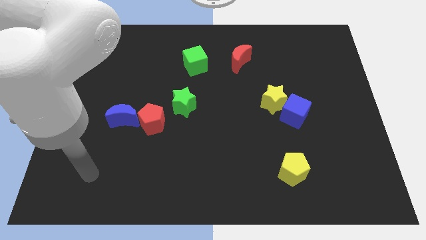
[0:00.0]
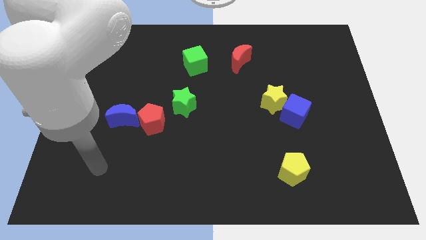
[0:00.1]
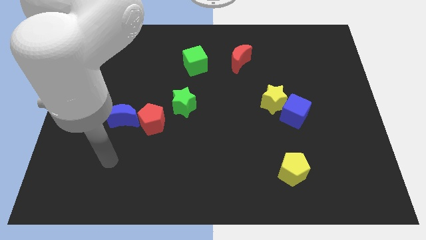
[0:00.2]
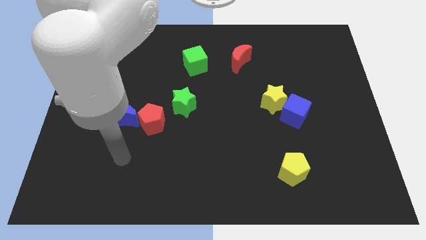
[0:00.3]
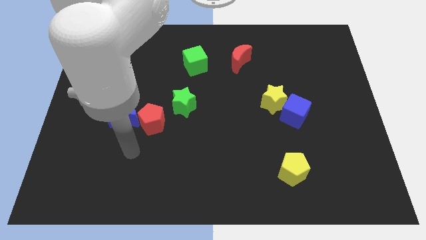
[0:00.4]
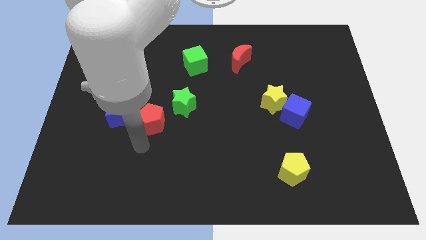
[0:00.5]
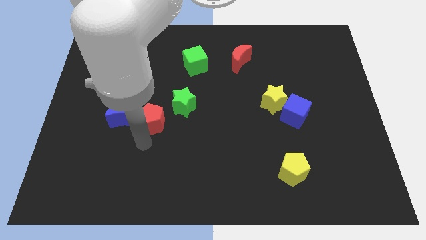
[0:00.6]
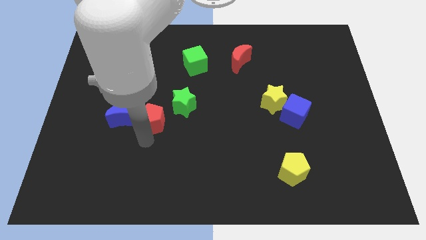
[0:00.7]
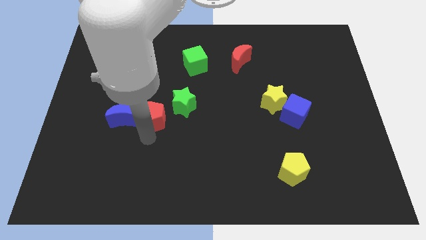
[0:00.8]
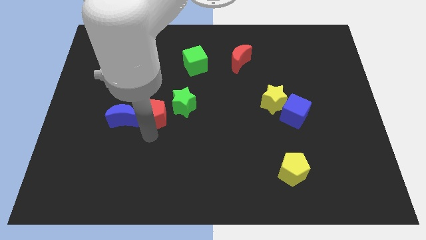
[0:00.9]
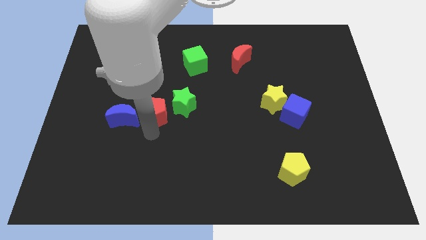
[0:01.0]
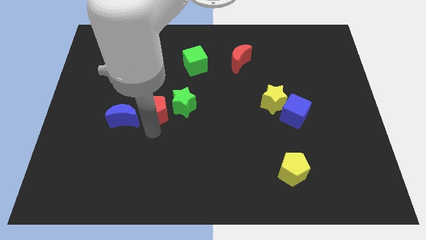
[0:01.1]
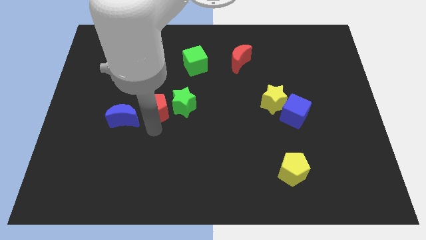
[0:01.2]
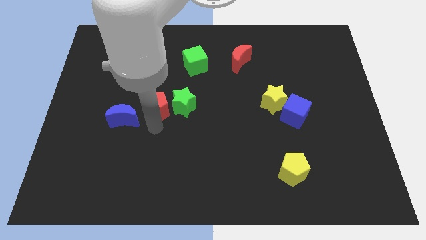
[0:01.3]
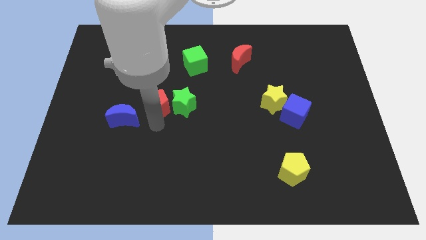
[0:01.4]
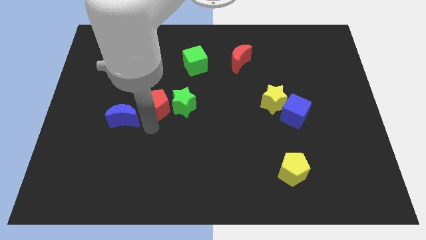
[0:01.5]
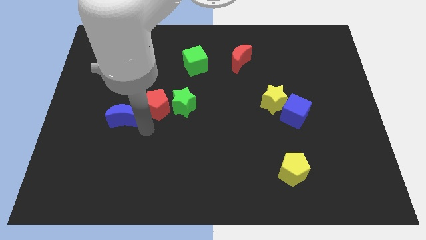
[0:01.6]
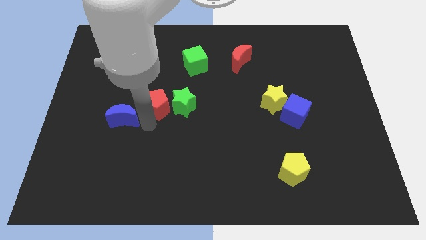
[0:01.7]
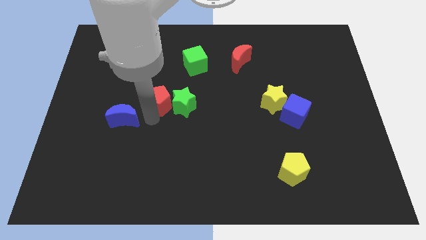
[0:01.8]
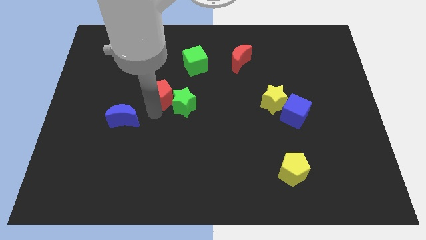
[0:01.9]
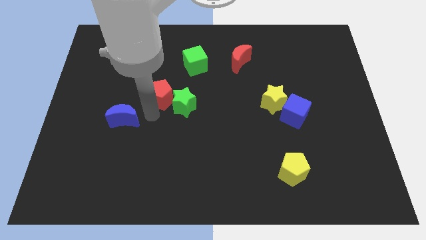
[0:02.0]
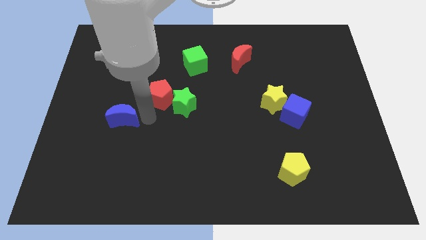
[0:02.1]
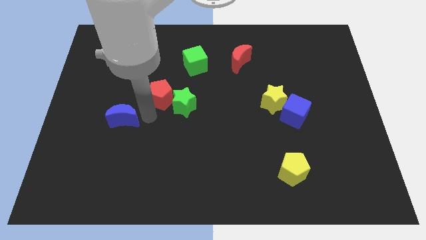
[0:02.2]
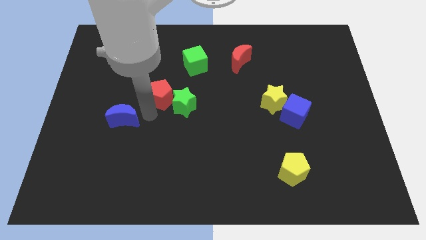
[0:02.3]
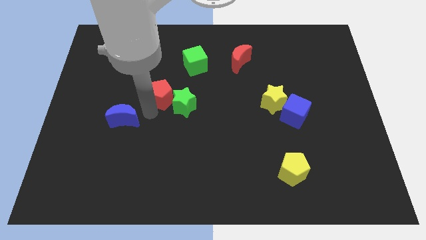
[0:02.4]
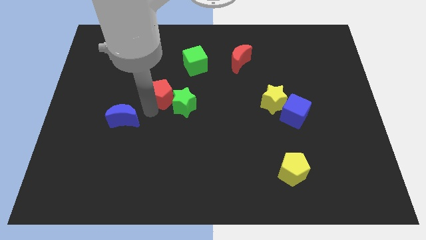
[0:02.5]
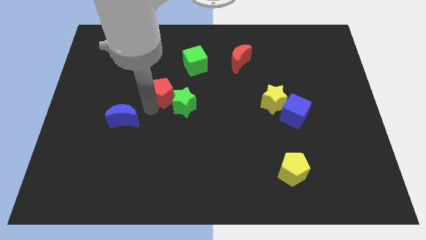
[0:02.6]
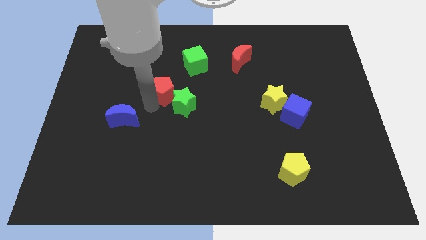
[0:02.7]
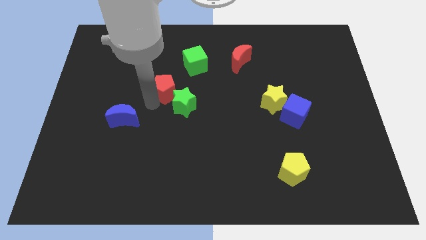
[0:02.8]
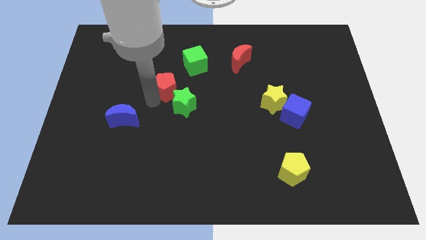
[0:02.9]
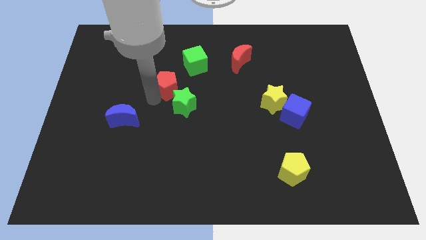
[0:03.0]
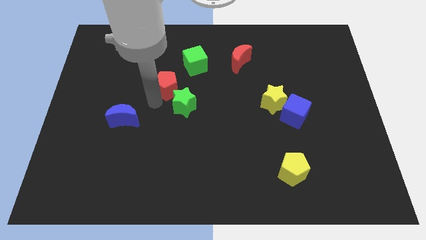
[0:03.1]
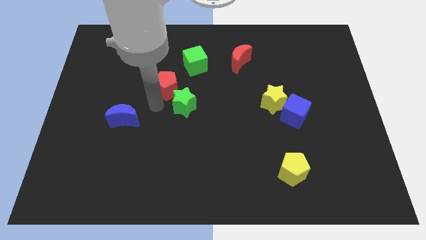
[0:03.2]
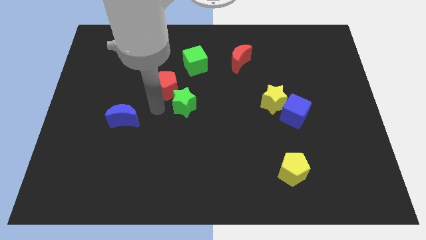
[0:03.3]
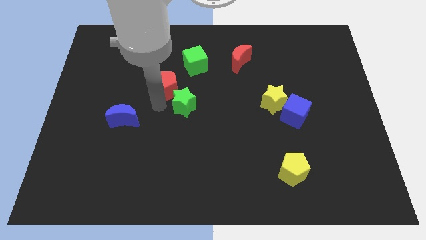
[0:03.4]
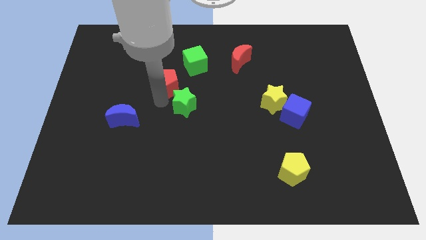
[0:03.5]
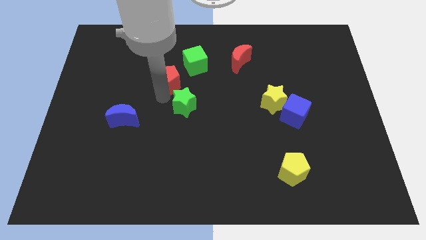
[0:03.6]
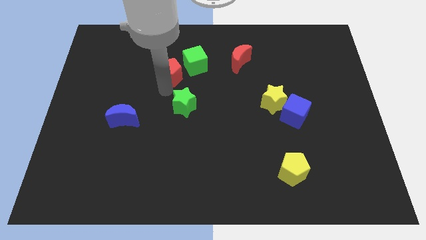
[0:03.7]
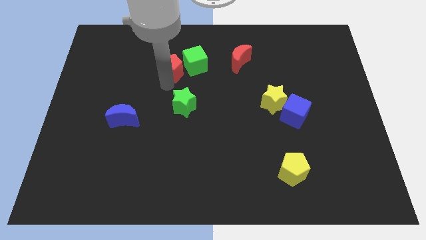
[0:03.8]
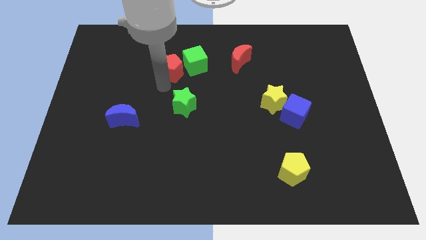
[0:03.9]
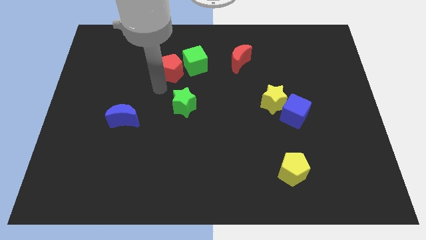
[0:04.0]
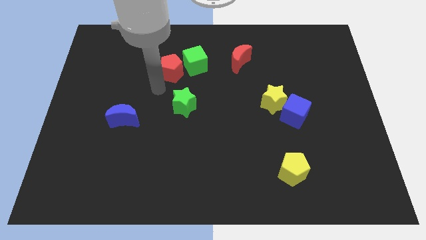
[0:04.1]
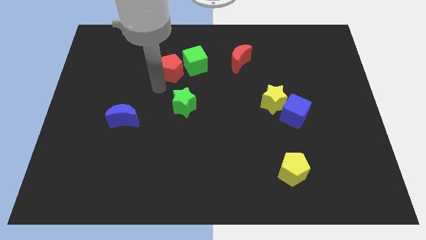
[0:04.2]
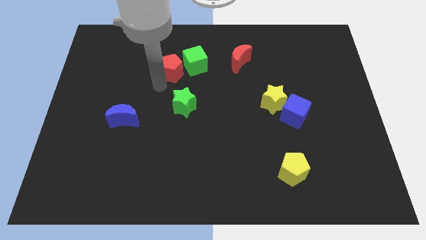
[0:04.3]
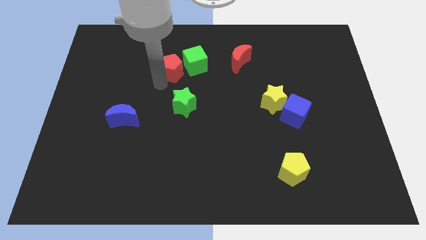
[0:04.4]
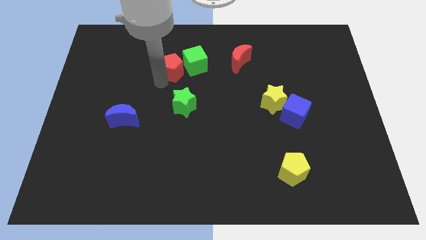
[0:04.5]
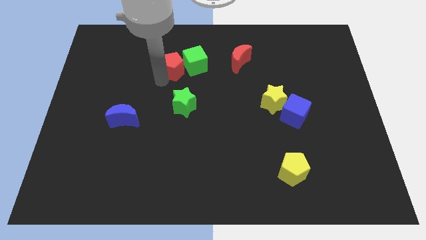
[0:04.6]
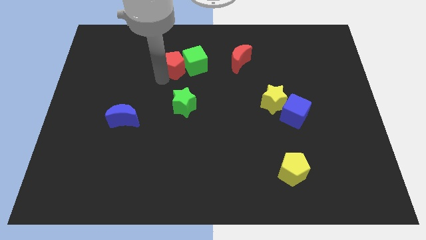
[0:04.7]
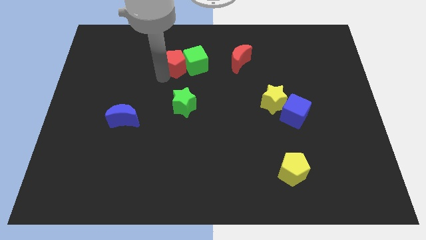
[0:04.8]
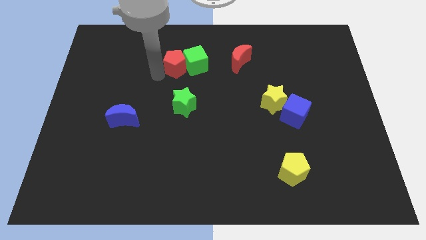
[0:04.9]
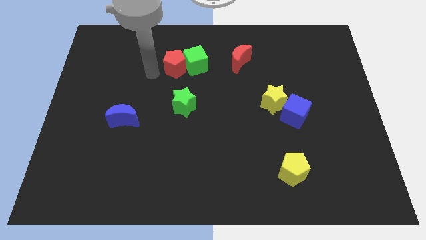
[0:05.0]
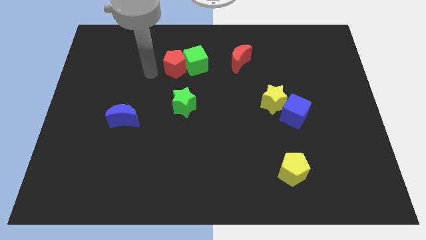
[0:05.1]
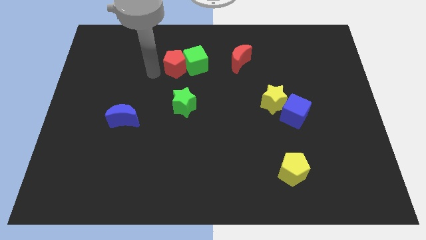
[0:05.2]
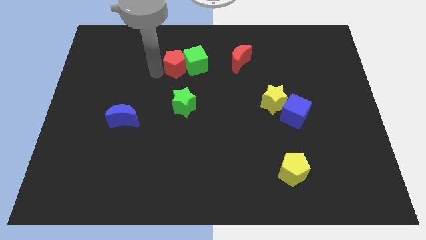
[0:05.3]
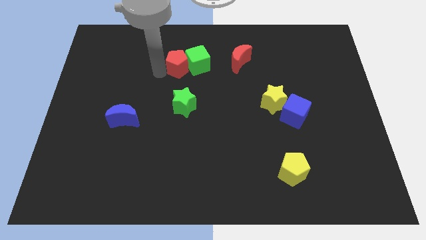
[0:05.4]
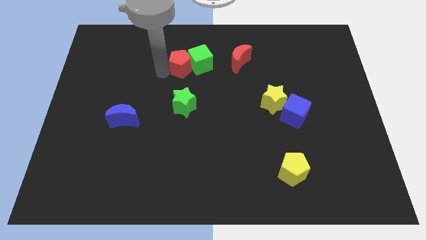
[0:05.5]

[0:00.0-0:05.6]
move the red pentagon to the left of the red moon

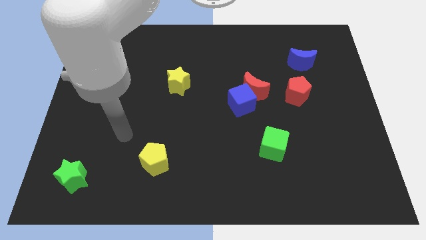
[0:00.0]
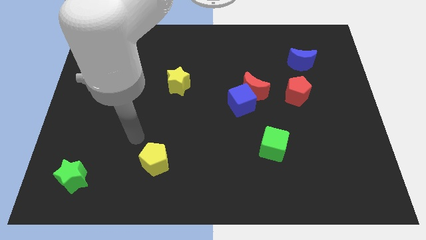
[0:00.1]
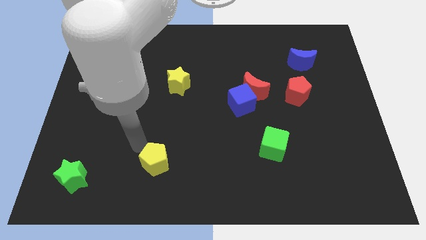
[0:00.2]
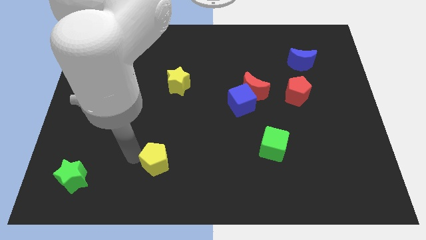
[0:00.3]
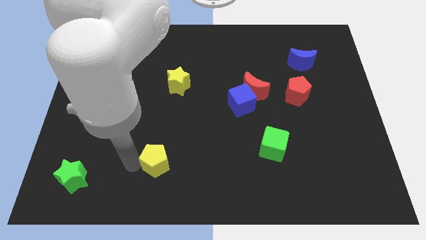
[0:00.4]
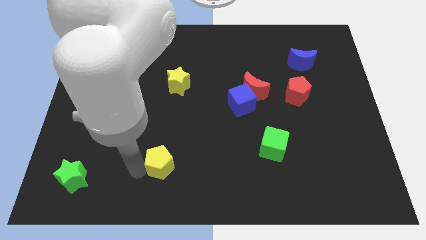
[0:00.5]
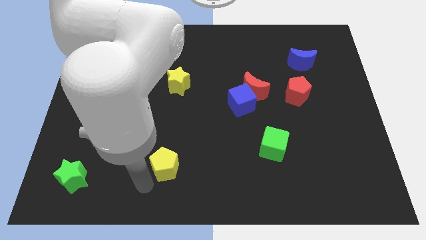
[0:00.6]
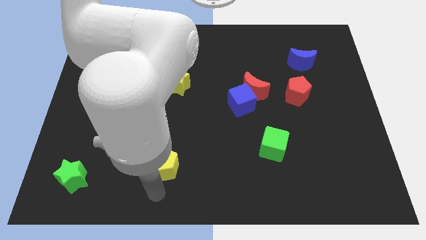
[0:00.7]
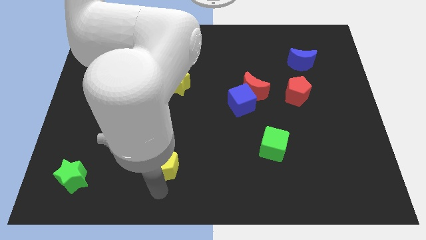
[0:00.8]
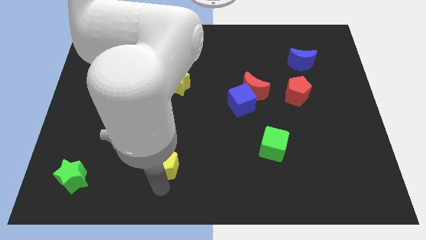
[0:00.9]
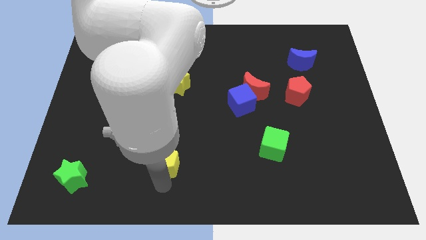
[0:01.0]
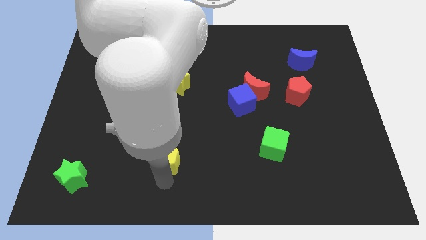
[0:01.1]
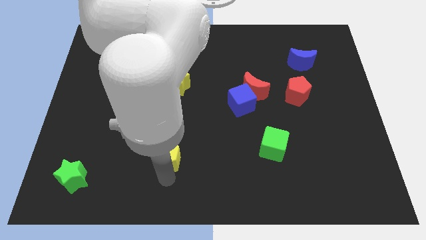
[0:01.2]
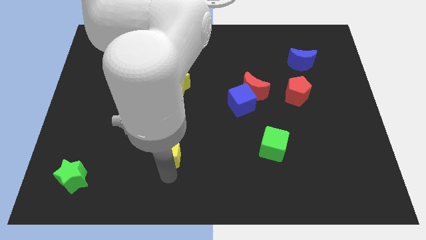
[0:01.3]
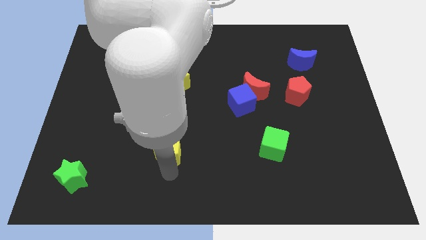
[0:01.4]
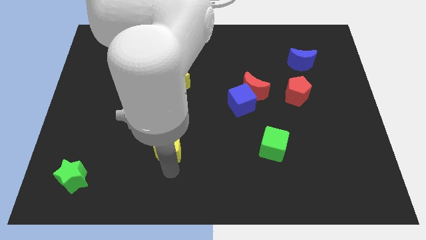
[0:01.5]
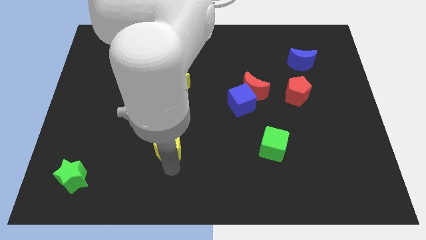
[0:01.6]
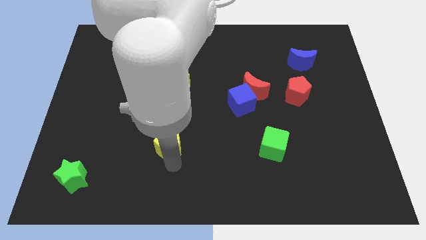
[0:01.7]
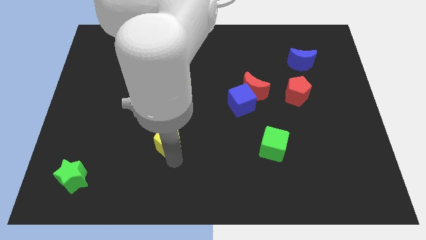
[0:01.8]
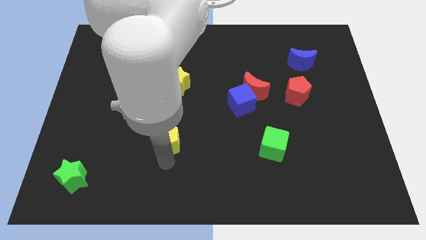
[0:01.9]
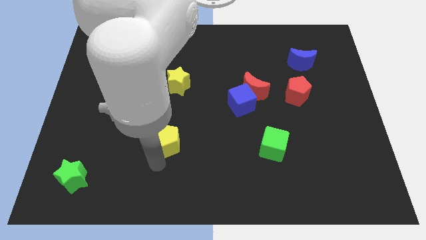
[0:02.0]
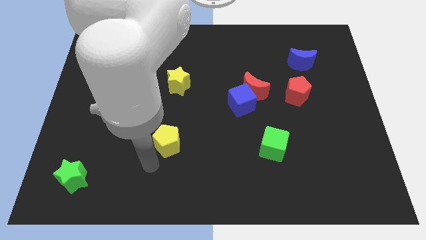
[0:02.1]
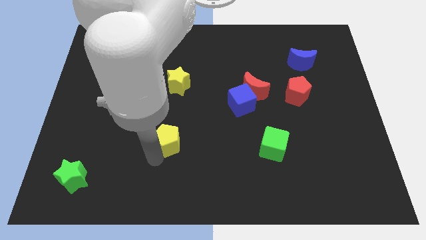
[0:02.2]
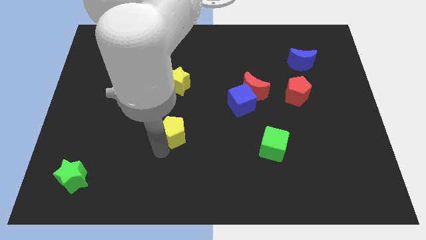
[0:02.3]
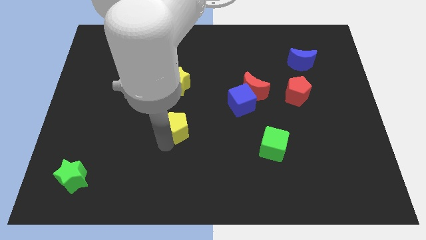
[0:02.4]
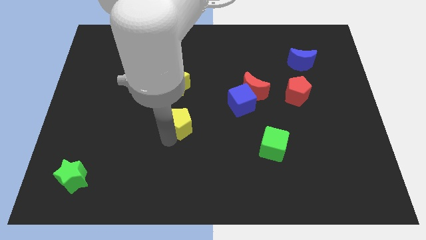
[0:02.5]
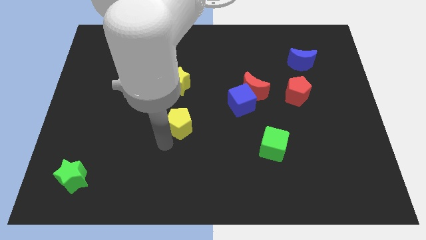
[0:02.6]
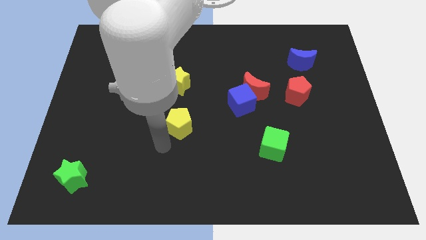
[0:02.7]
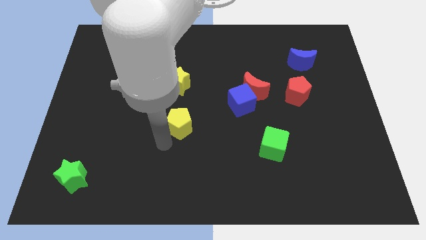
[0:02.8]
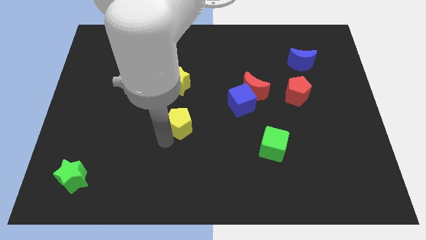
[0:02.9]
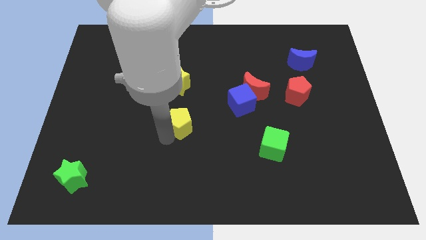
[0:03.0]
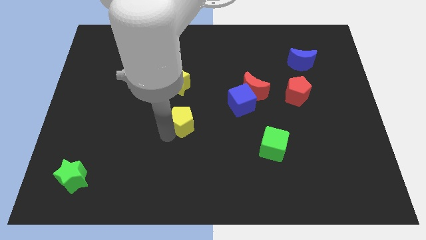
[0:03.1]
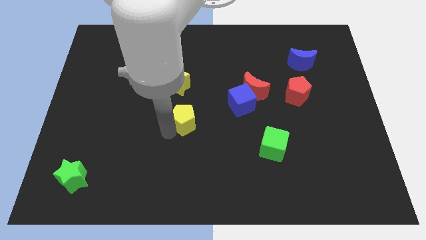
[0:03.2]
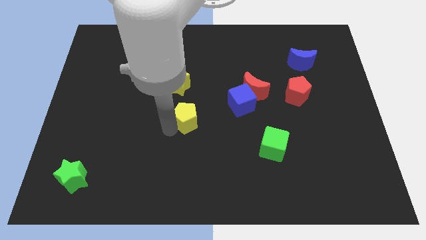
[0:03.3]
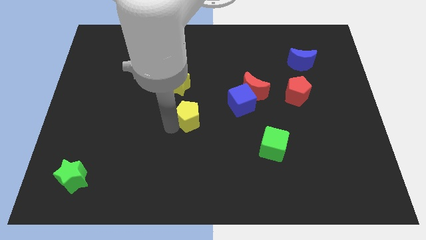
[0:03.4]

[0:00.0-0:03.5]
push the yellow pentagon to the left side of the blue cube
